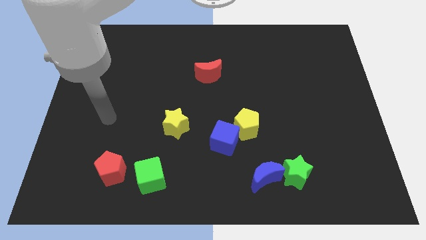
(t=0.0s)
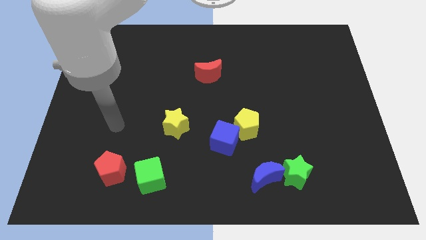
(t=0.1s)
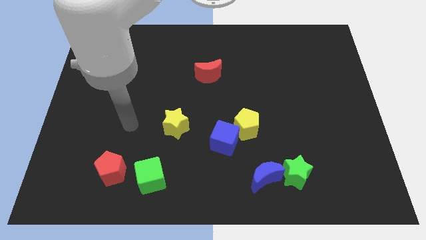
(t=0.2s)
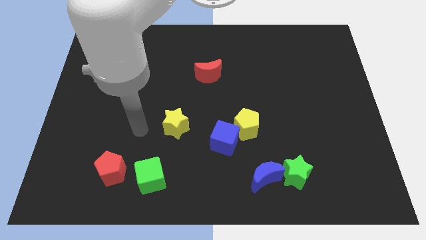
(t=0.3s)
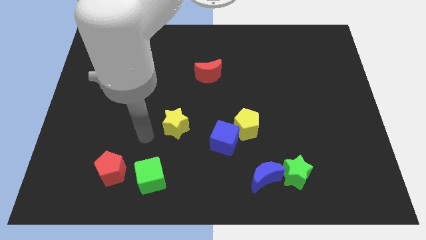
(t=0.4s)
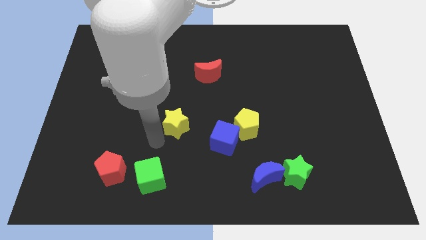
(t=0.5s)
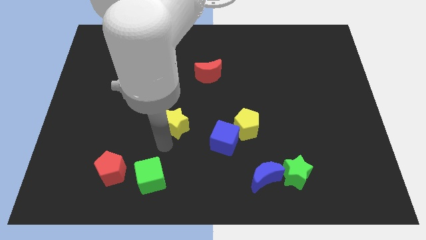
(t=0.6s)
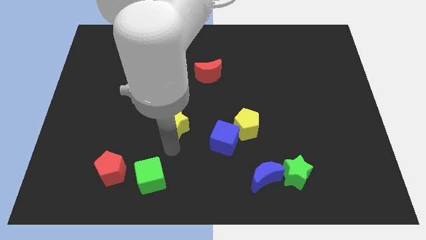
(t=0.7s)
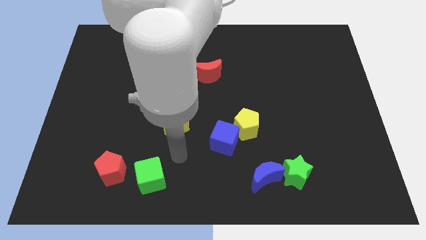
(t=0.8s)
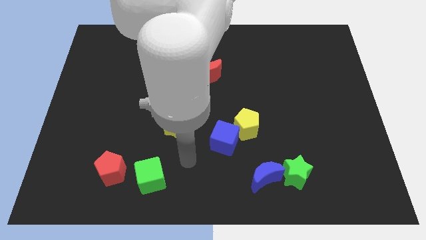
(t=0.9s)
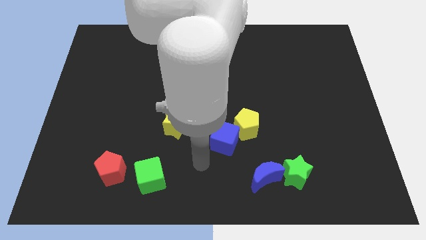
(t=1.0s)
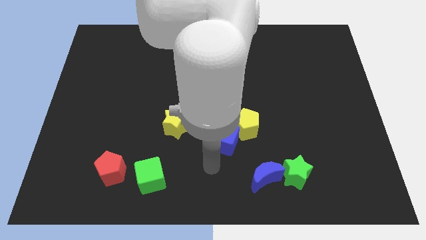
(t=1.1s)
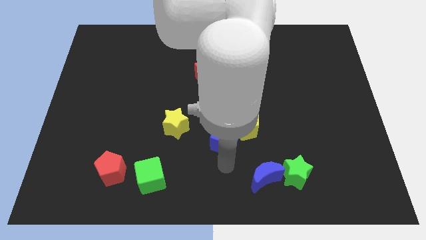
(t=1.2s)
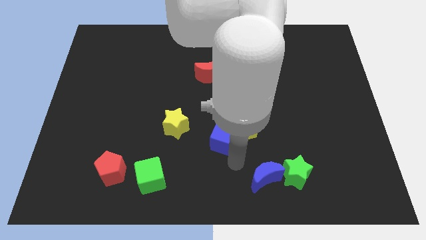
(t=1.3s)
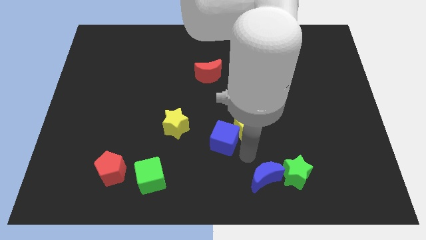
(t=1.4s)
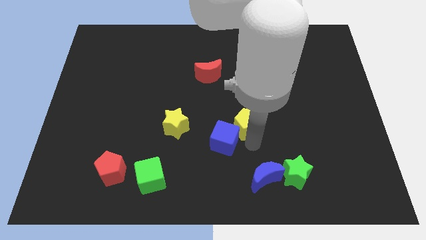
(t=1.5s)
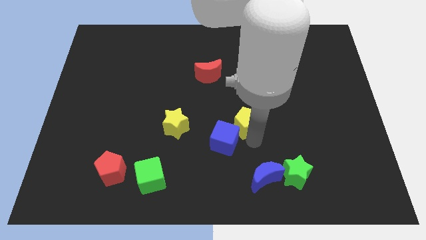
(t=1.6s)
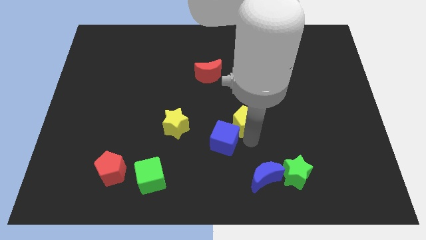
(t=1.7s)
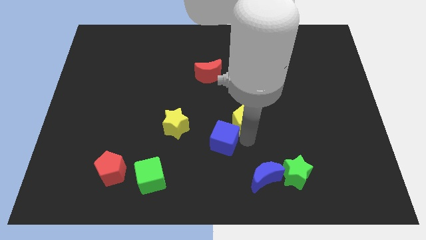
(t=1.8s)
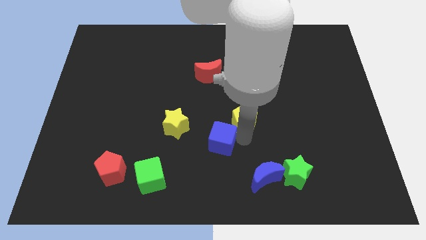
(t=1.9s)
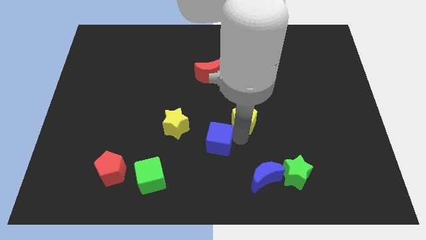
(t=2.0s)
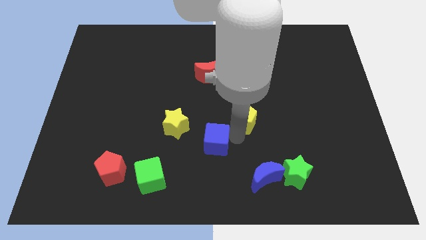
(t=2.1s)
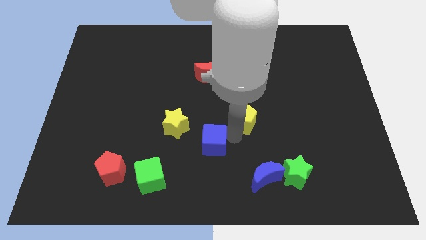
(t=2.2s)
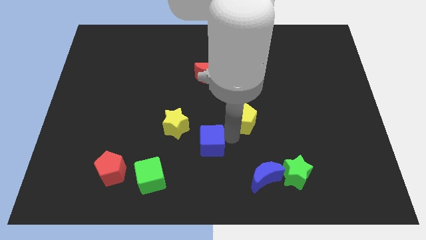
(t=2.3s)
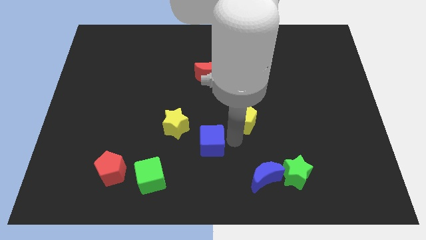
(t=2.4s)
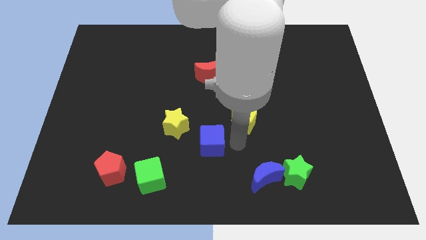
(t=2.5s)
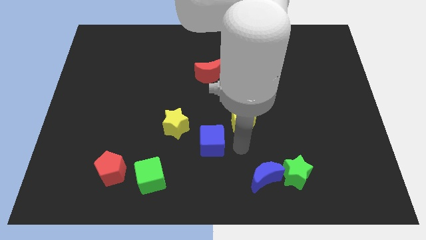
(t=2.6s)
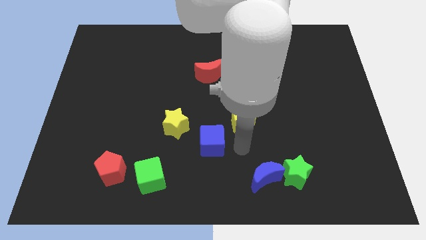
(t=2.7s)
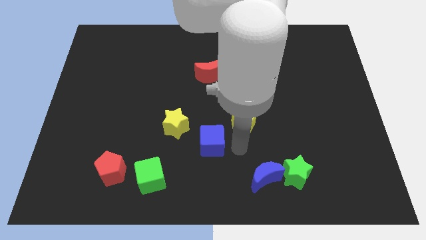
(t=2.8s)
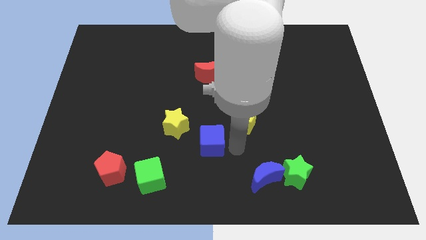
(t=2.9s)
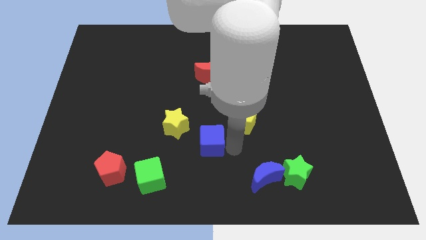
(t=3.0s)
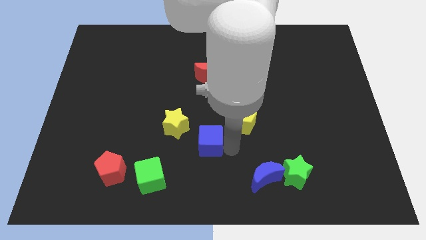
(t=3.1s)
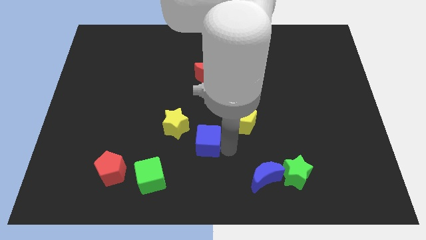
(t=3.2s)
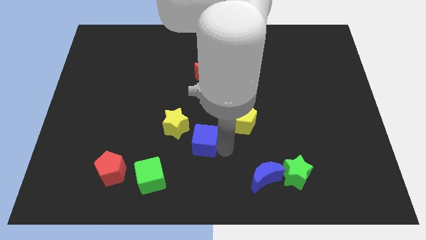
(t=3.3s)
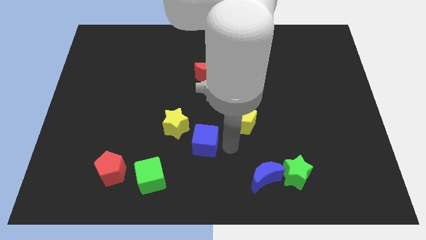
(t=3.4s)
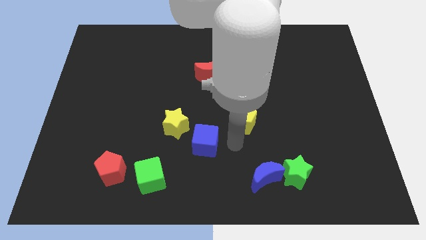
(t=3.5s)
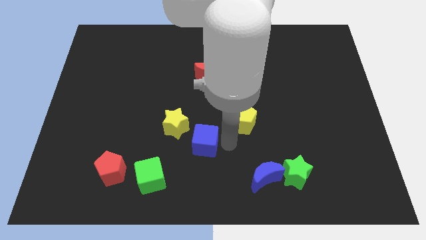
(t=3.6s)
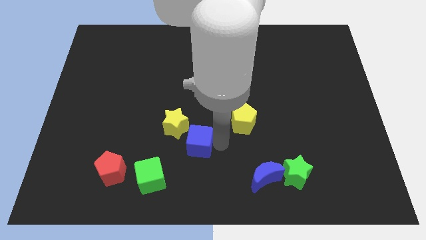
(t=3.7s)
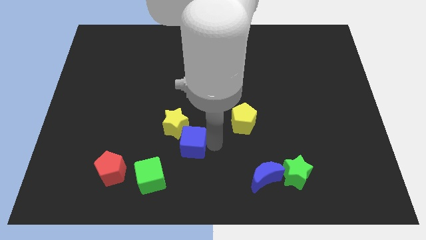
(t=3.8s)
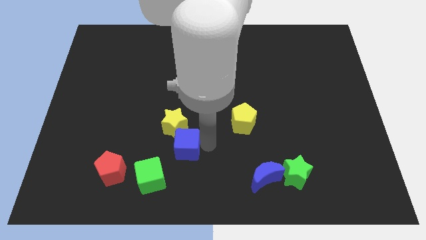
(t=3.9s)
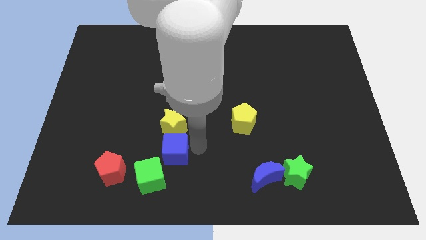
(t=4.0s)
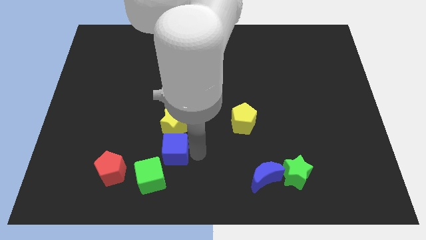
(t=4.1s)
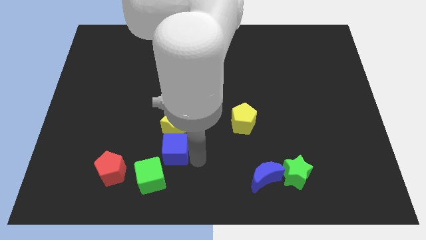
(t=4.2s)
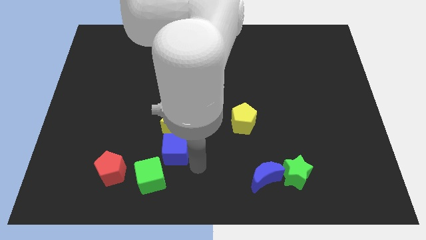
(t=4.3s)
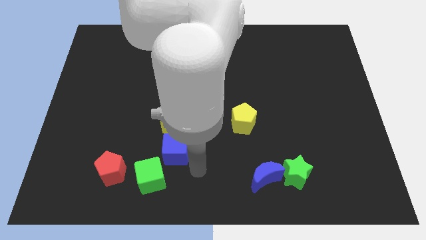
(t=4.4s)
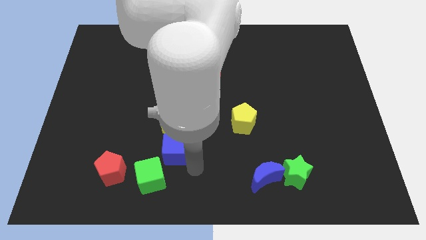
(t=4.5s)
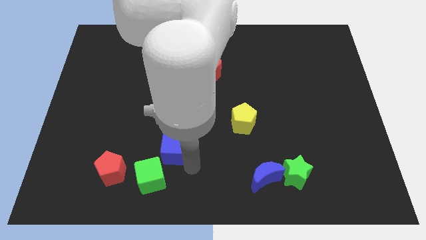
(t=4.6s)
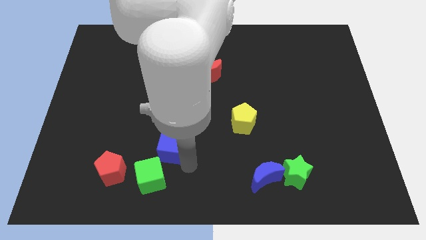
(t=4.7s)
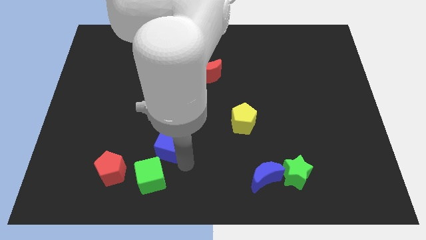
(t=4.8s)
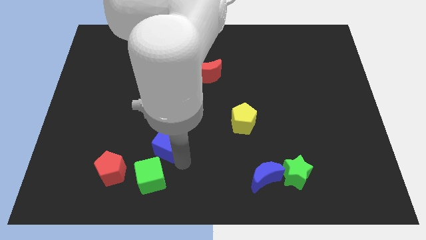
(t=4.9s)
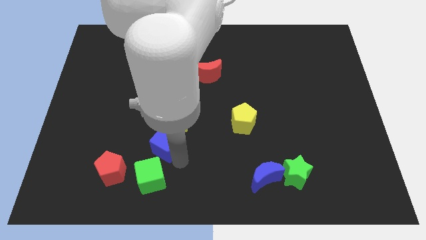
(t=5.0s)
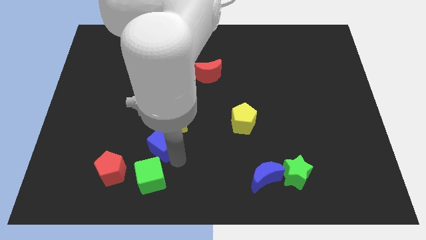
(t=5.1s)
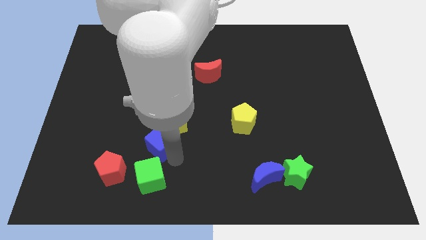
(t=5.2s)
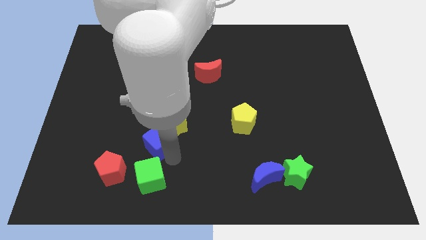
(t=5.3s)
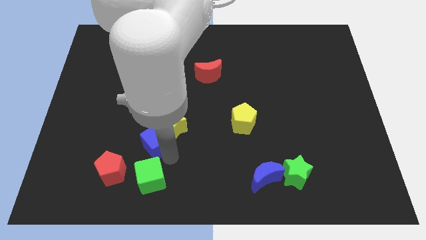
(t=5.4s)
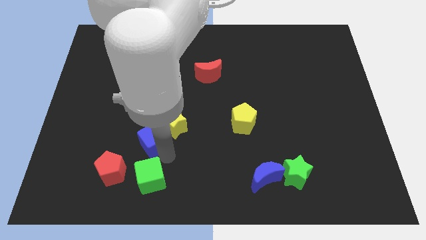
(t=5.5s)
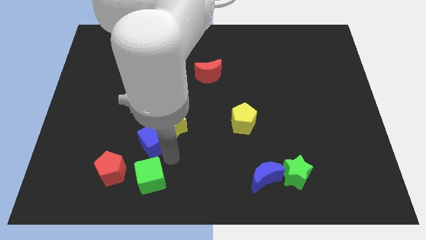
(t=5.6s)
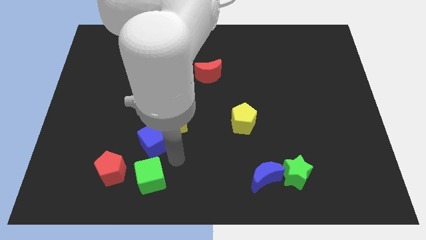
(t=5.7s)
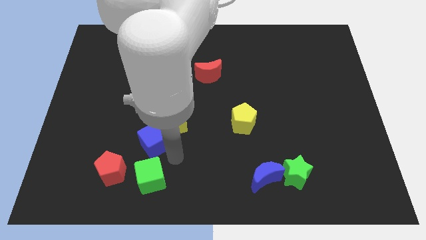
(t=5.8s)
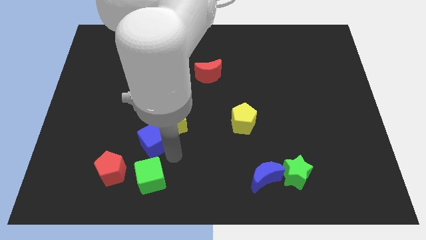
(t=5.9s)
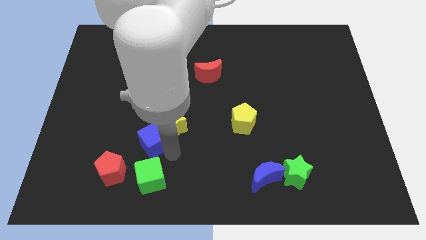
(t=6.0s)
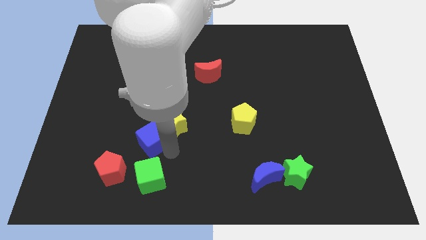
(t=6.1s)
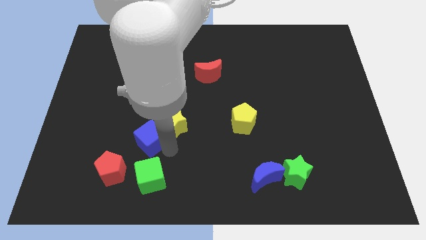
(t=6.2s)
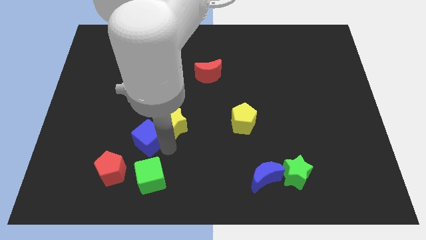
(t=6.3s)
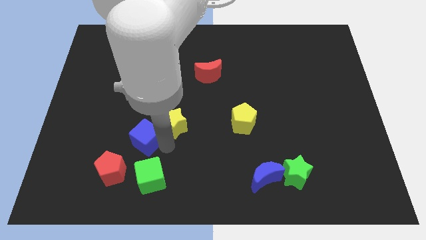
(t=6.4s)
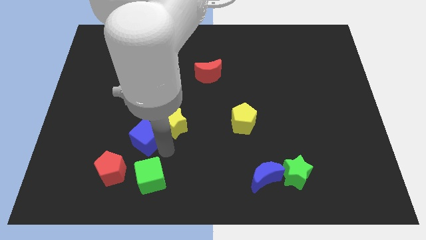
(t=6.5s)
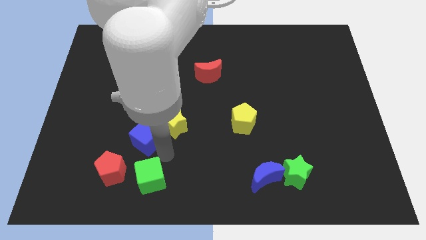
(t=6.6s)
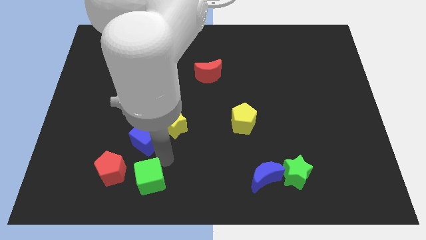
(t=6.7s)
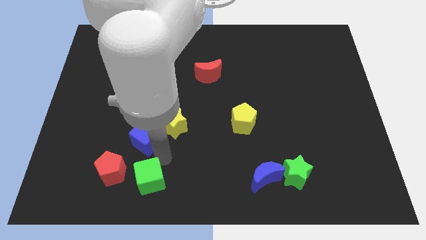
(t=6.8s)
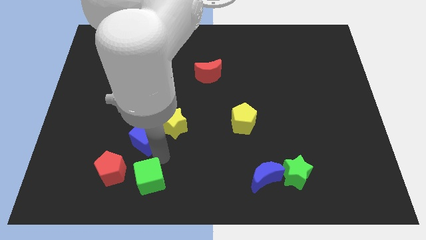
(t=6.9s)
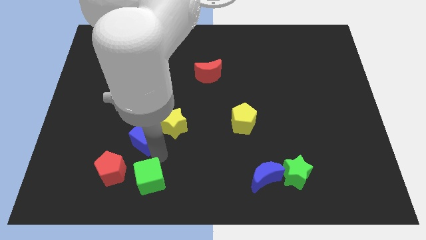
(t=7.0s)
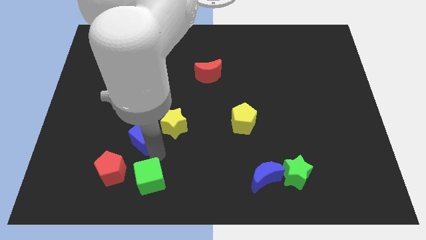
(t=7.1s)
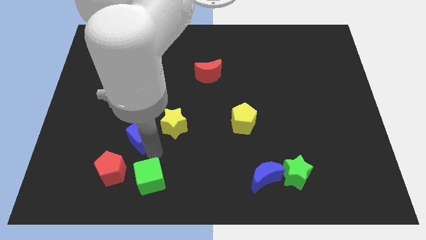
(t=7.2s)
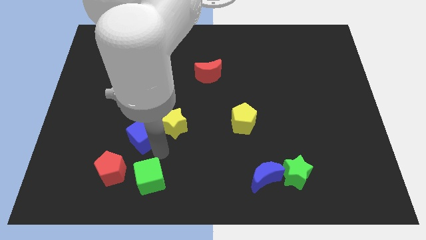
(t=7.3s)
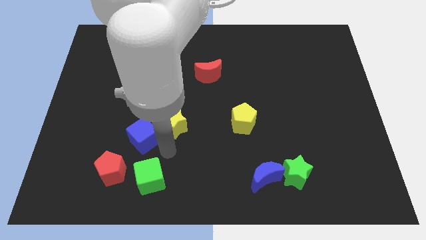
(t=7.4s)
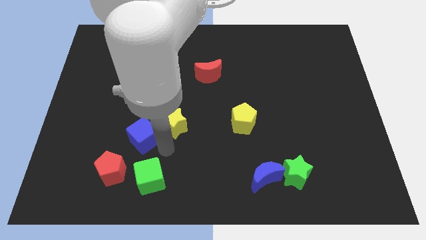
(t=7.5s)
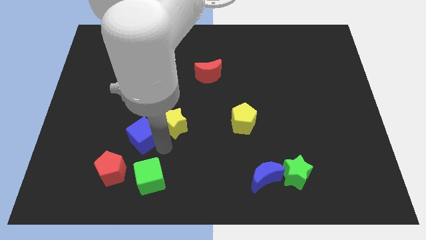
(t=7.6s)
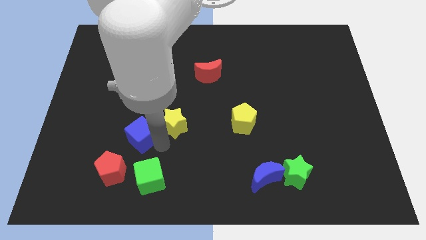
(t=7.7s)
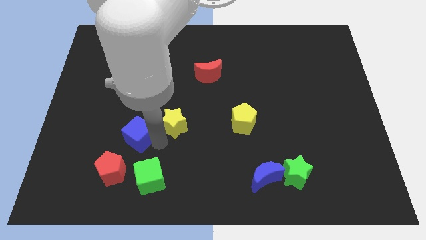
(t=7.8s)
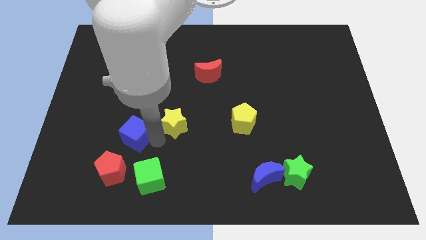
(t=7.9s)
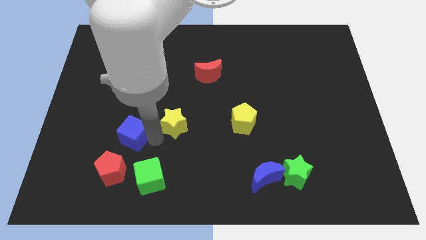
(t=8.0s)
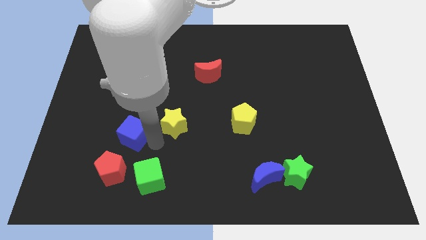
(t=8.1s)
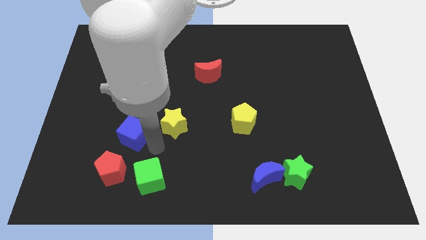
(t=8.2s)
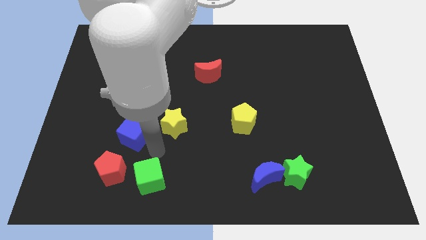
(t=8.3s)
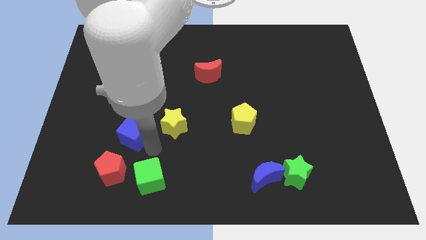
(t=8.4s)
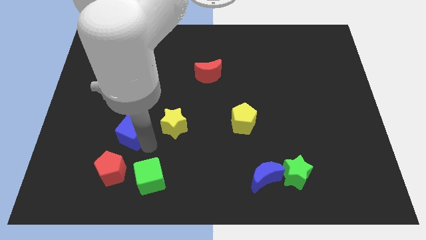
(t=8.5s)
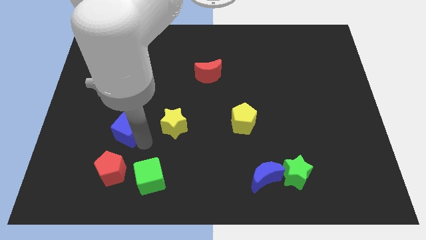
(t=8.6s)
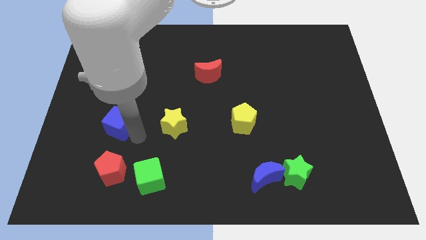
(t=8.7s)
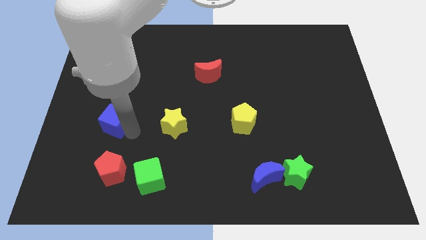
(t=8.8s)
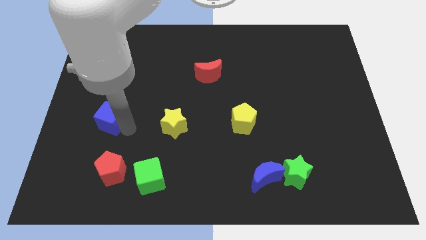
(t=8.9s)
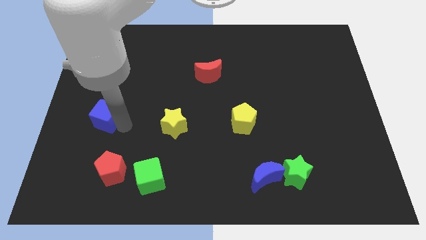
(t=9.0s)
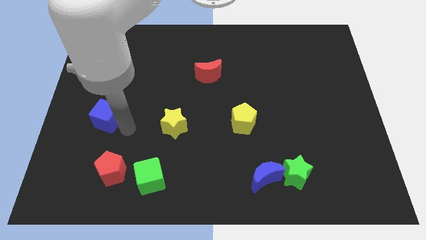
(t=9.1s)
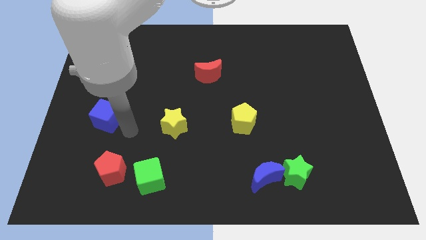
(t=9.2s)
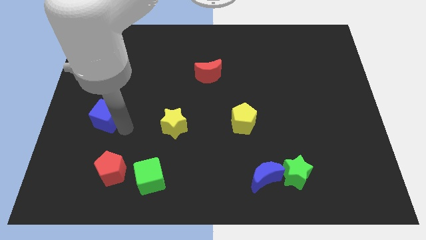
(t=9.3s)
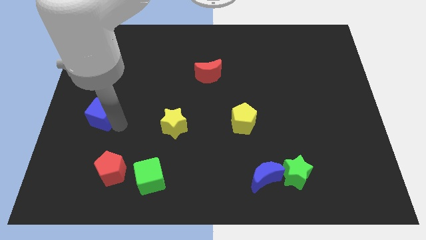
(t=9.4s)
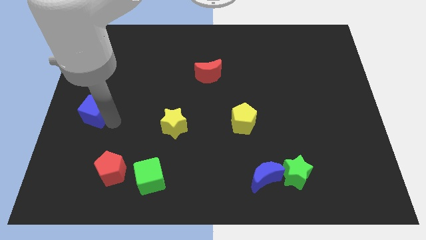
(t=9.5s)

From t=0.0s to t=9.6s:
slide the blue cube to the left side
